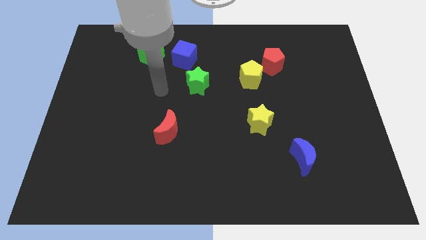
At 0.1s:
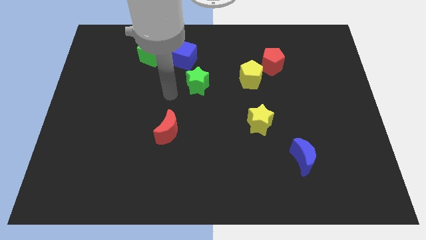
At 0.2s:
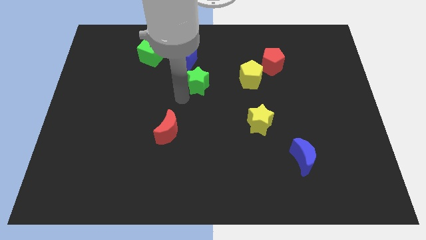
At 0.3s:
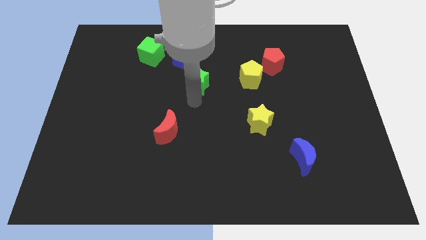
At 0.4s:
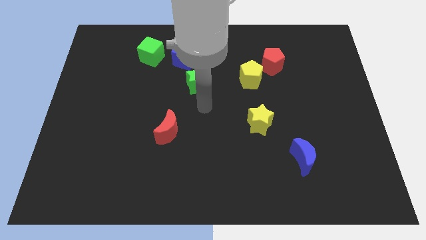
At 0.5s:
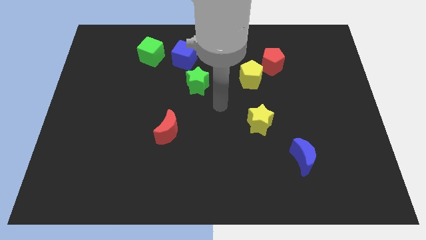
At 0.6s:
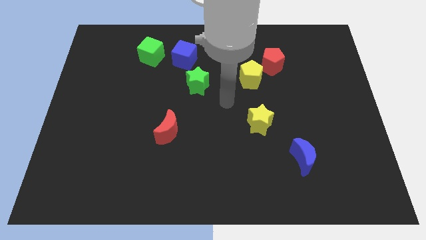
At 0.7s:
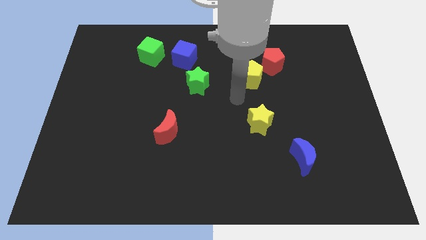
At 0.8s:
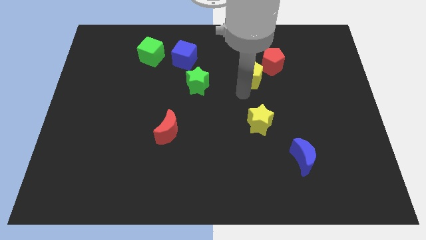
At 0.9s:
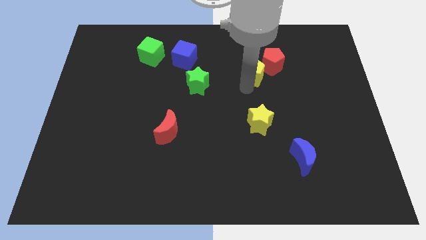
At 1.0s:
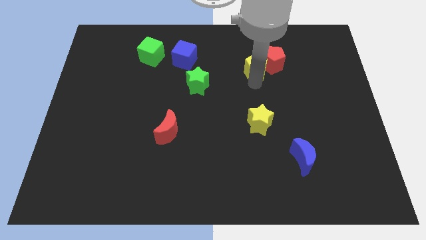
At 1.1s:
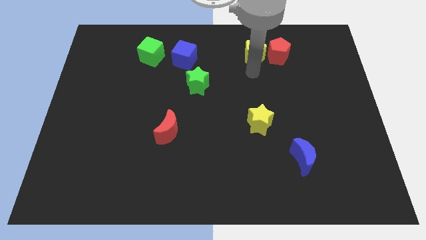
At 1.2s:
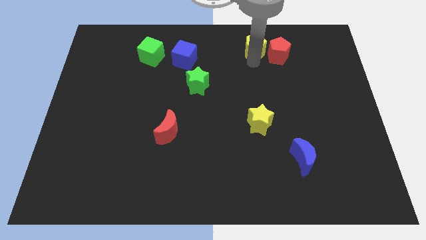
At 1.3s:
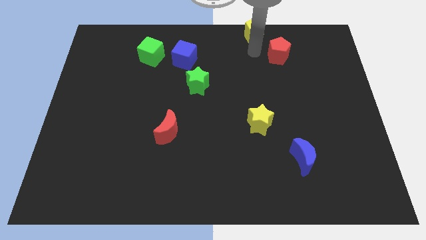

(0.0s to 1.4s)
pull the red pentagon apart from the yellow pentagon

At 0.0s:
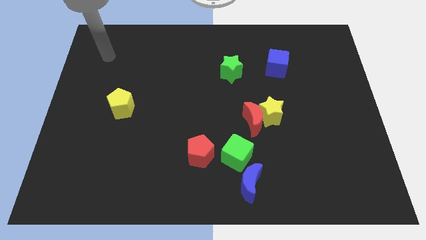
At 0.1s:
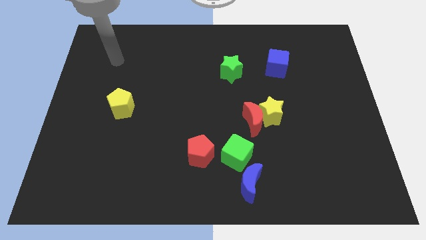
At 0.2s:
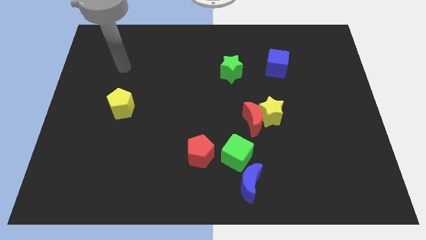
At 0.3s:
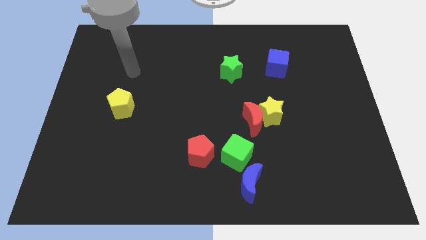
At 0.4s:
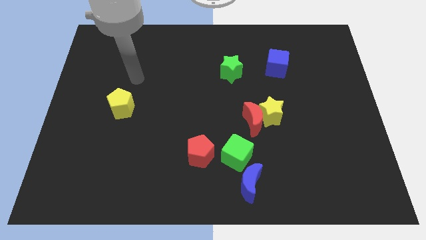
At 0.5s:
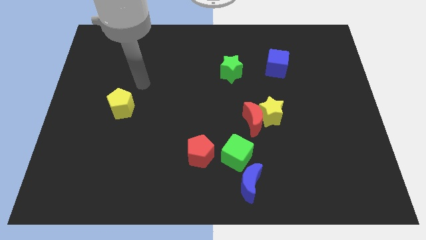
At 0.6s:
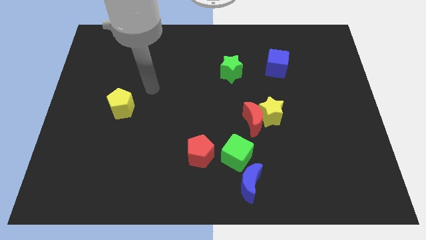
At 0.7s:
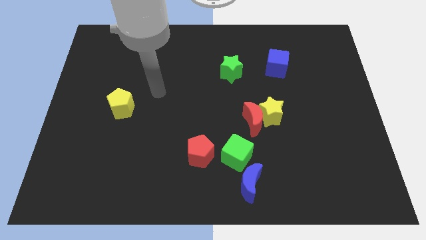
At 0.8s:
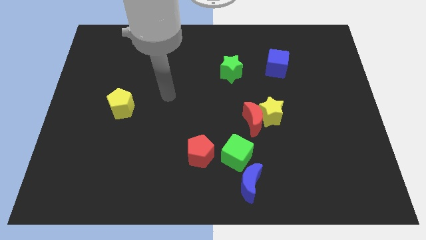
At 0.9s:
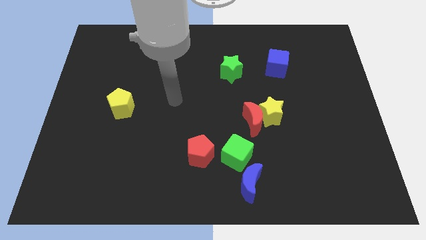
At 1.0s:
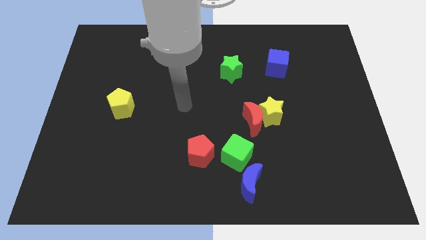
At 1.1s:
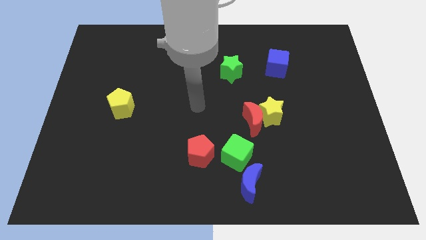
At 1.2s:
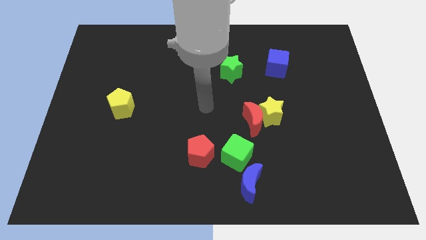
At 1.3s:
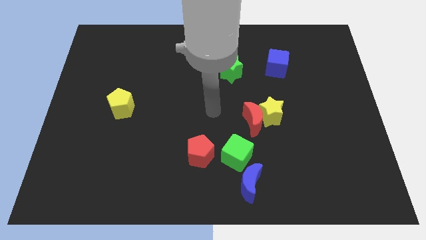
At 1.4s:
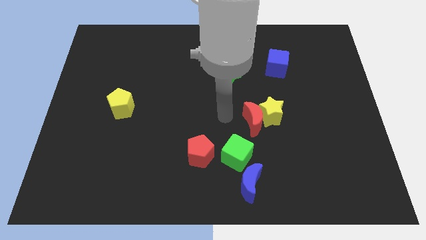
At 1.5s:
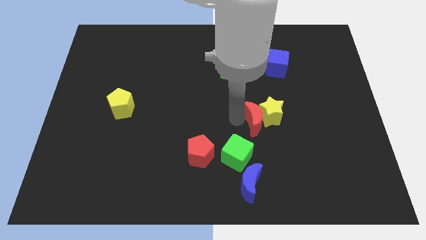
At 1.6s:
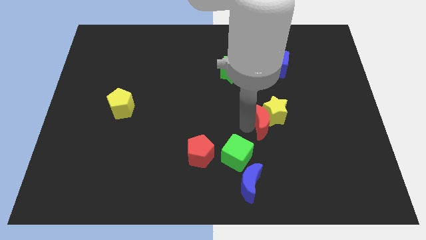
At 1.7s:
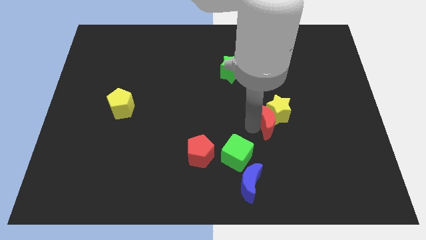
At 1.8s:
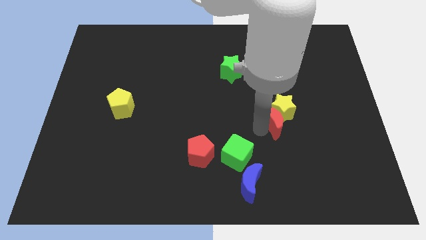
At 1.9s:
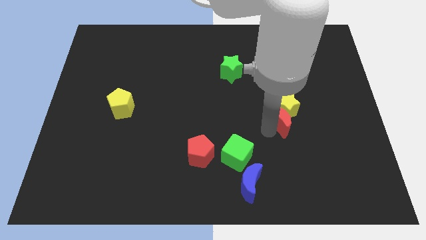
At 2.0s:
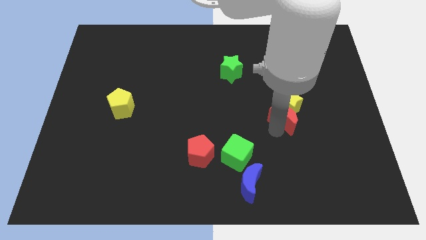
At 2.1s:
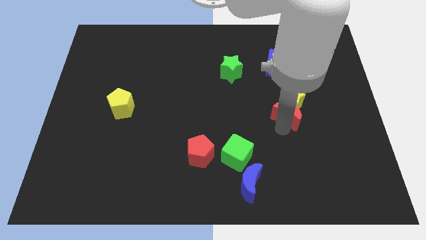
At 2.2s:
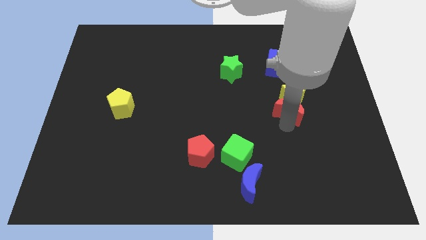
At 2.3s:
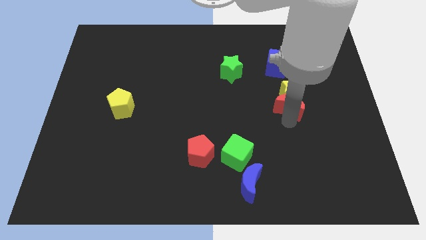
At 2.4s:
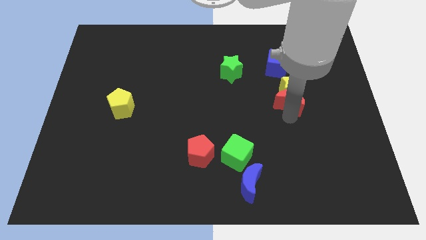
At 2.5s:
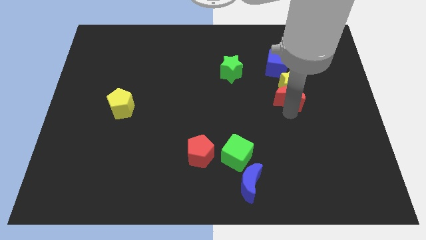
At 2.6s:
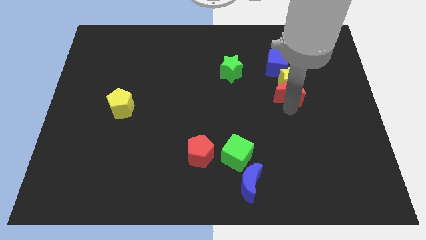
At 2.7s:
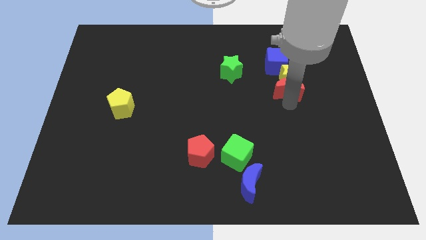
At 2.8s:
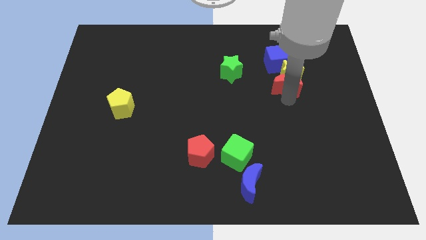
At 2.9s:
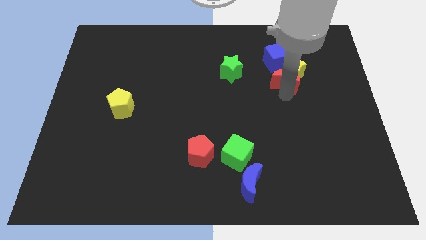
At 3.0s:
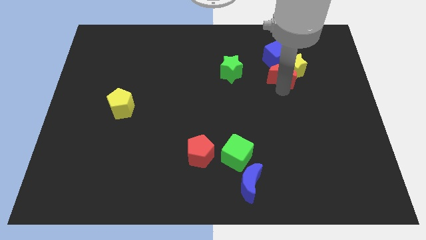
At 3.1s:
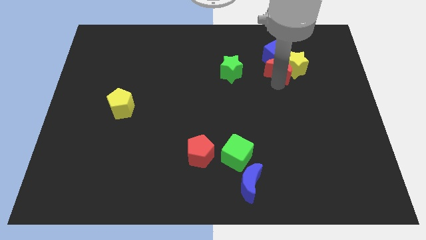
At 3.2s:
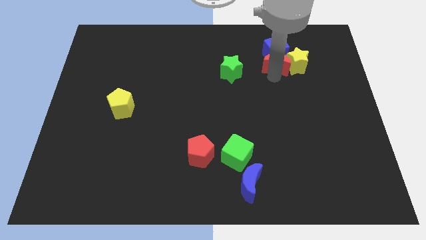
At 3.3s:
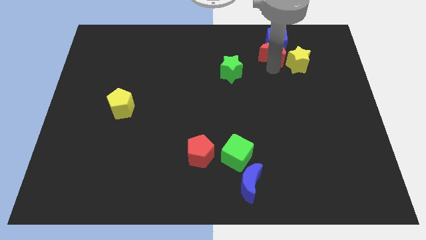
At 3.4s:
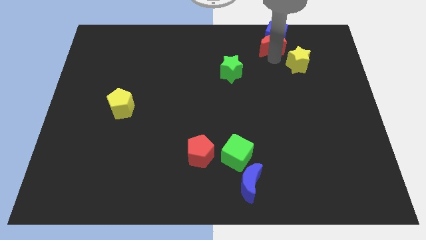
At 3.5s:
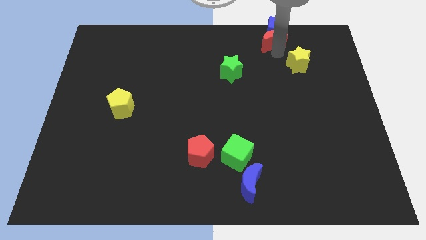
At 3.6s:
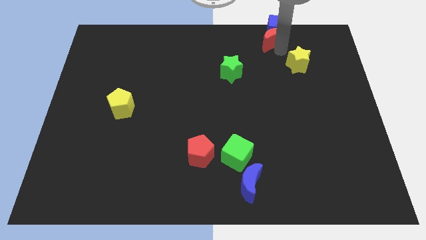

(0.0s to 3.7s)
separate the yellow star from the red moon

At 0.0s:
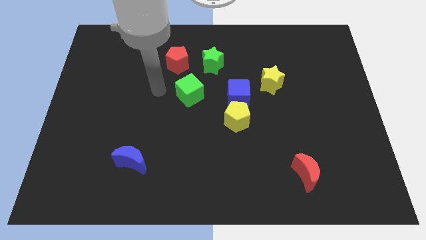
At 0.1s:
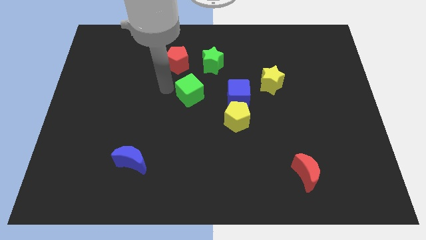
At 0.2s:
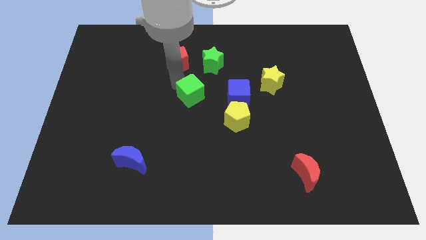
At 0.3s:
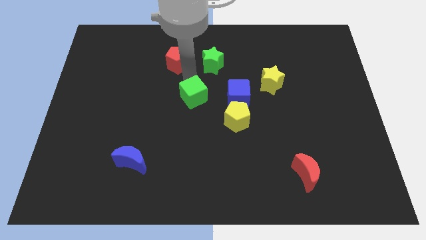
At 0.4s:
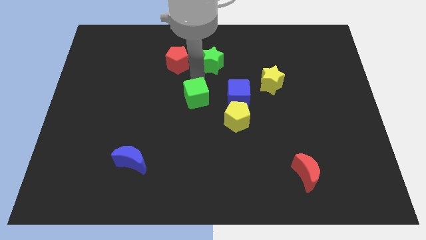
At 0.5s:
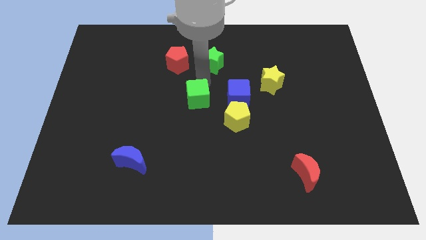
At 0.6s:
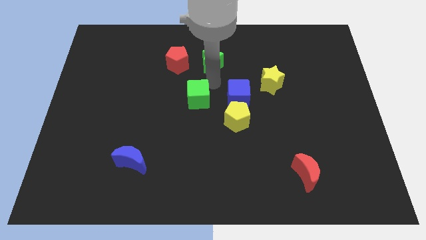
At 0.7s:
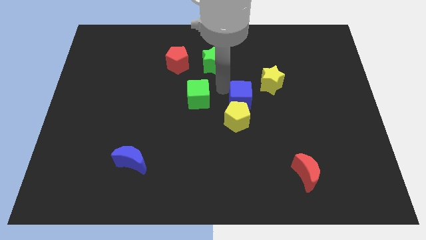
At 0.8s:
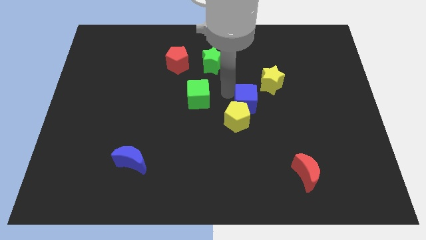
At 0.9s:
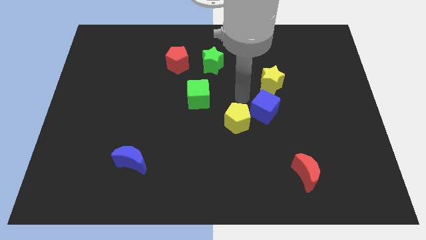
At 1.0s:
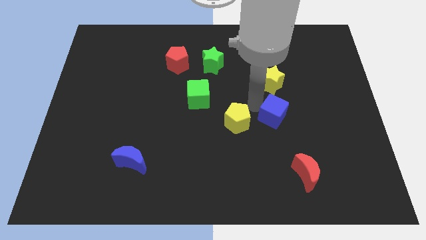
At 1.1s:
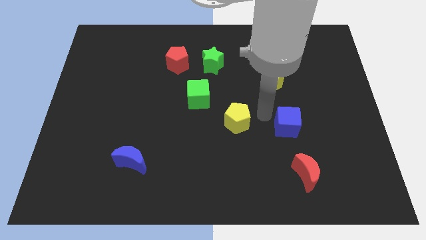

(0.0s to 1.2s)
pull the yellow pentagon apart from the blue cube

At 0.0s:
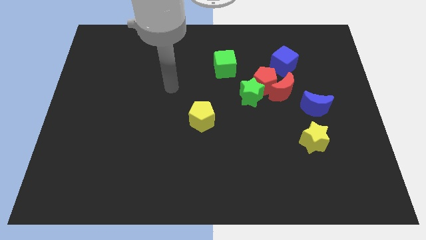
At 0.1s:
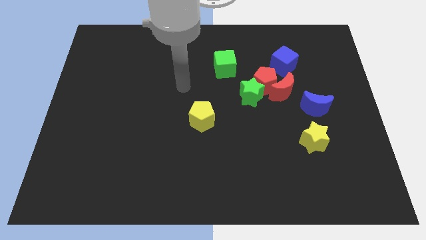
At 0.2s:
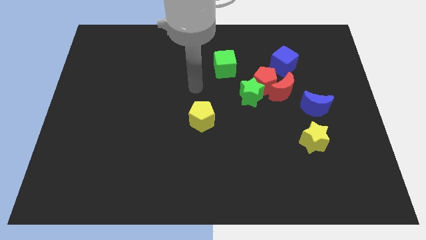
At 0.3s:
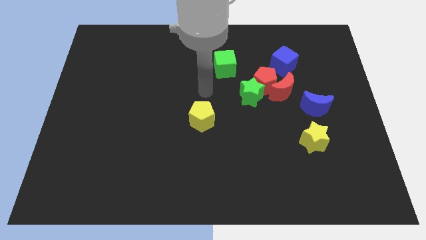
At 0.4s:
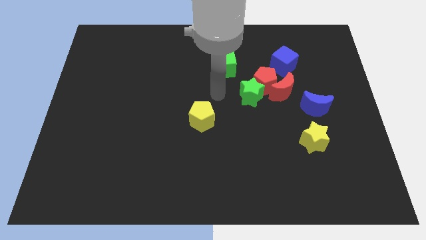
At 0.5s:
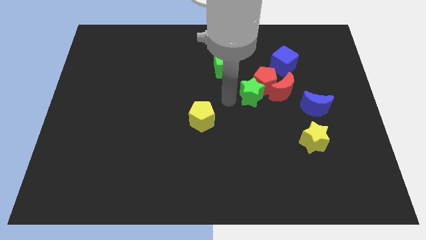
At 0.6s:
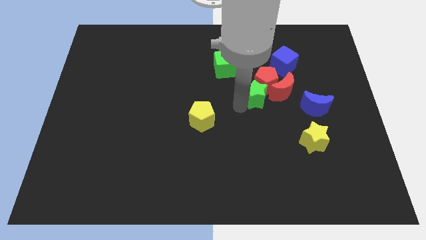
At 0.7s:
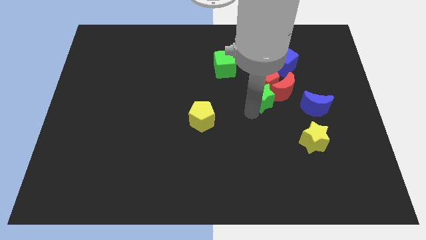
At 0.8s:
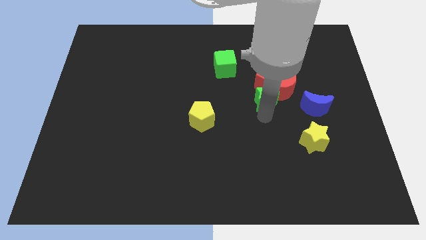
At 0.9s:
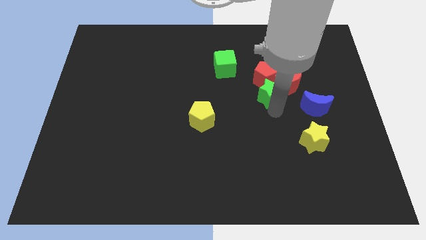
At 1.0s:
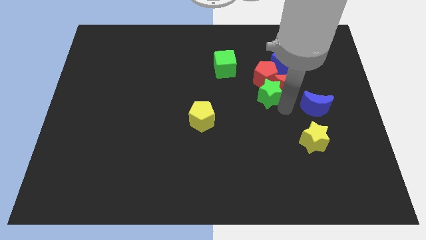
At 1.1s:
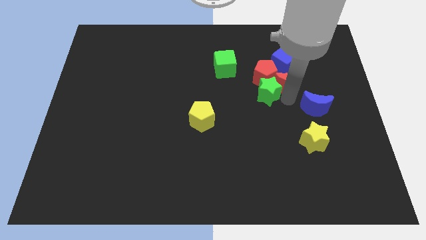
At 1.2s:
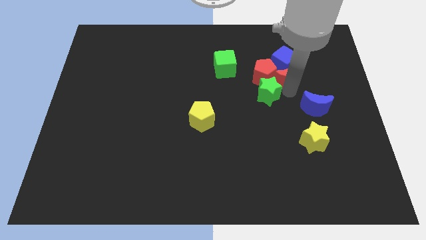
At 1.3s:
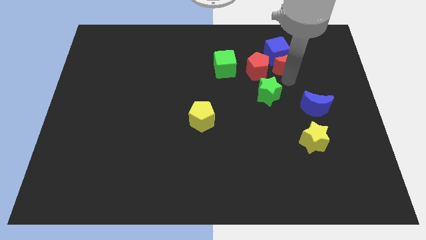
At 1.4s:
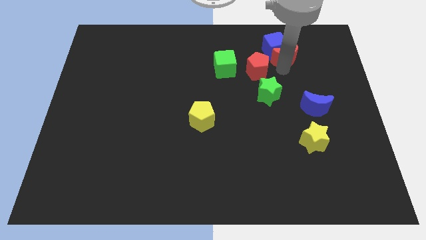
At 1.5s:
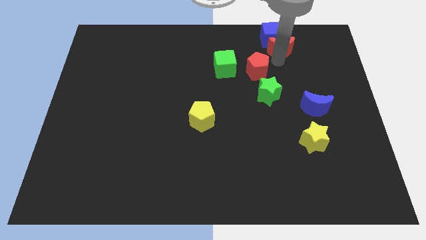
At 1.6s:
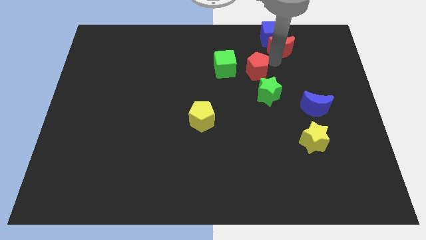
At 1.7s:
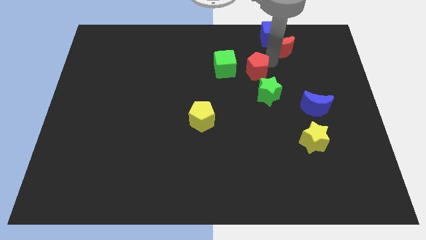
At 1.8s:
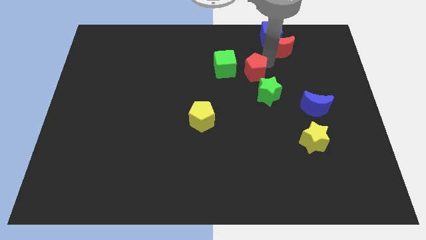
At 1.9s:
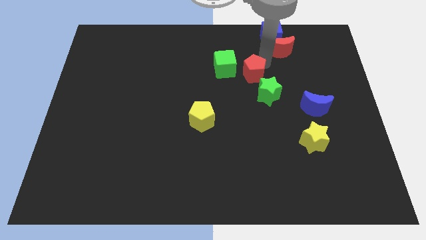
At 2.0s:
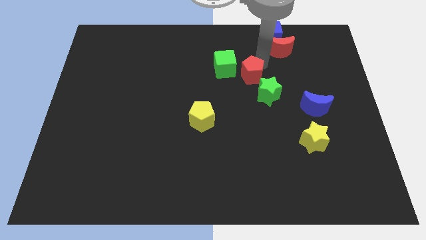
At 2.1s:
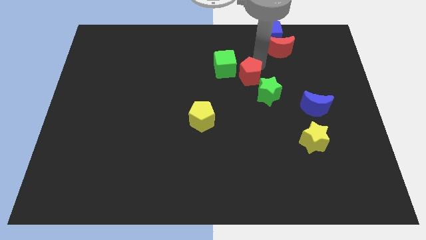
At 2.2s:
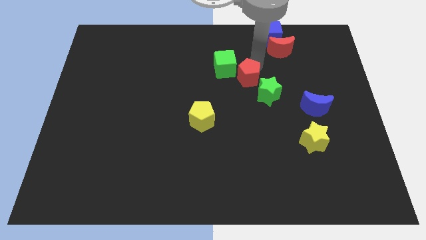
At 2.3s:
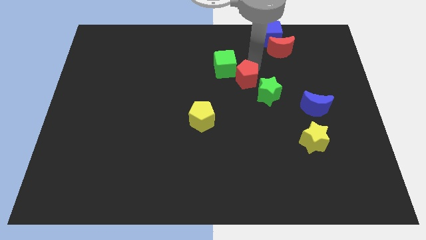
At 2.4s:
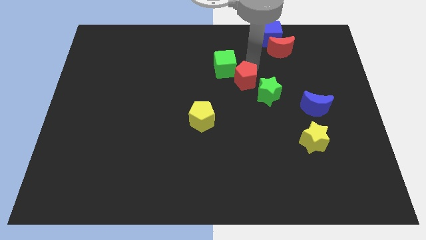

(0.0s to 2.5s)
pull the red pentagon apart from the group

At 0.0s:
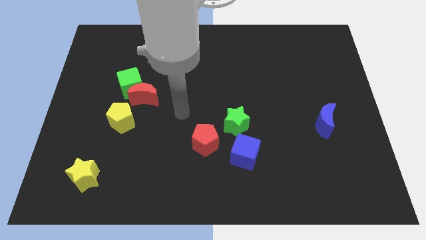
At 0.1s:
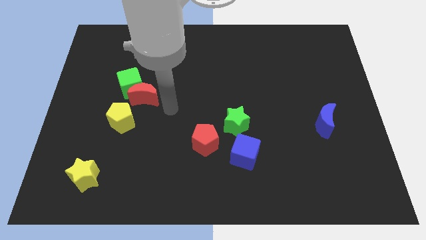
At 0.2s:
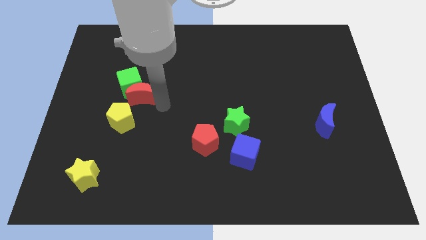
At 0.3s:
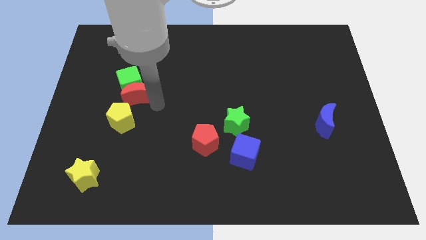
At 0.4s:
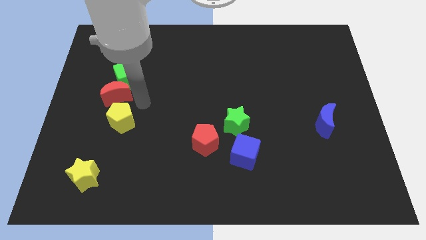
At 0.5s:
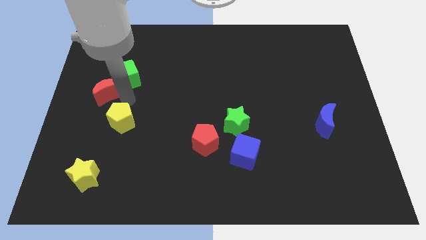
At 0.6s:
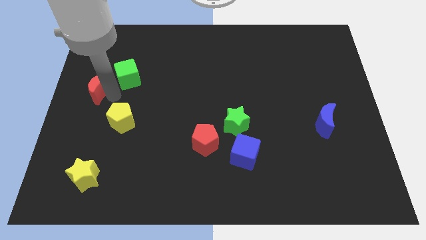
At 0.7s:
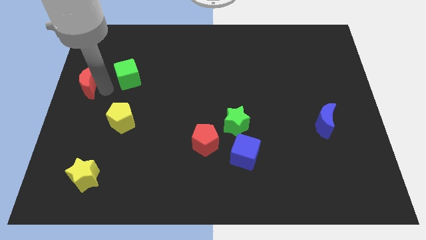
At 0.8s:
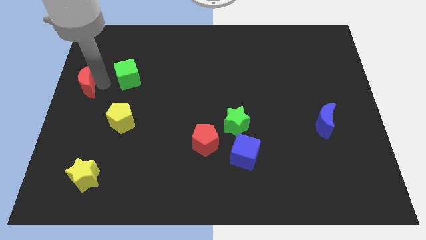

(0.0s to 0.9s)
pull the green cube apart from the red moon
